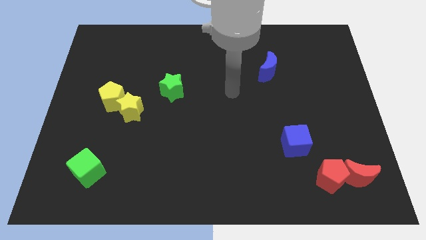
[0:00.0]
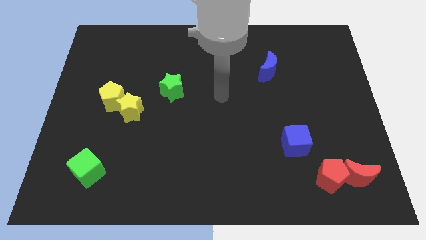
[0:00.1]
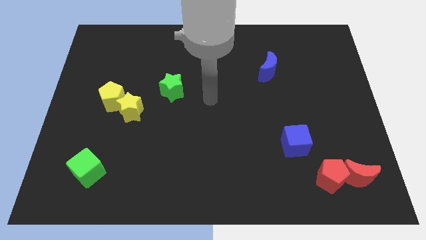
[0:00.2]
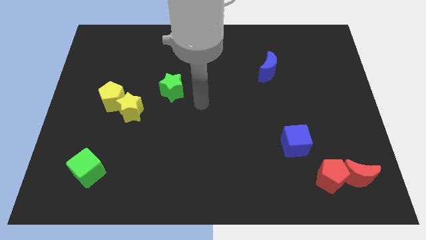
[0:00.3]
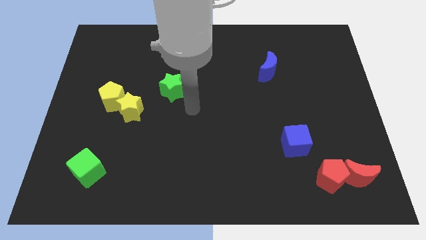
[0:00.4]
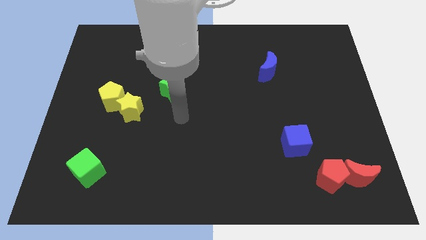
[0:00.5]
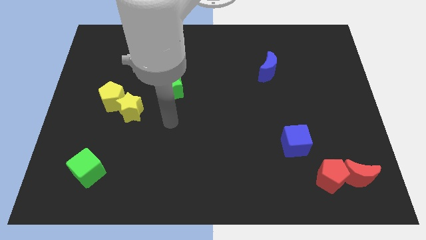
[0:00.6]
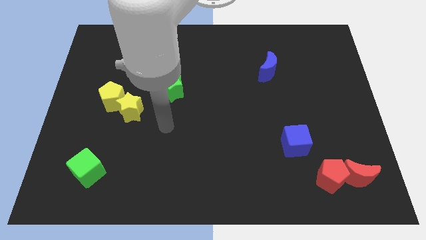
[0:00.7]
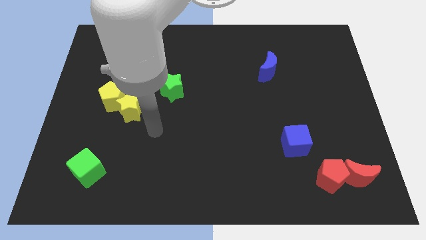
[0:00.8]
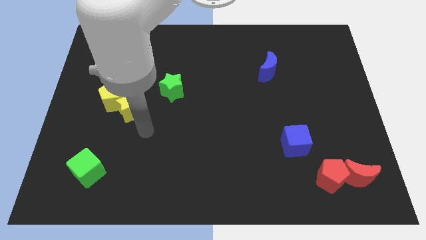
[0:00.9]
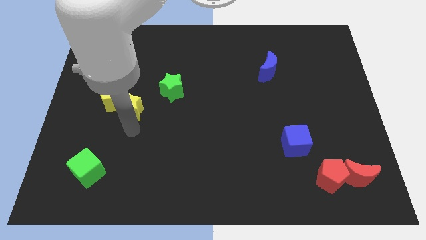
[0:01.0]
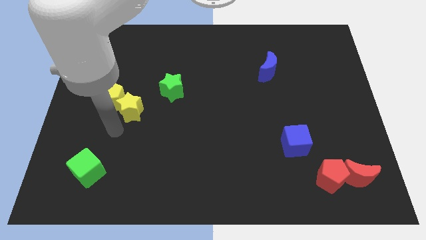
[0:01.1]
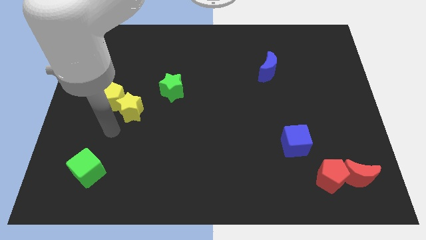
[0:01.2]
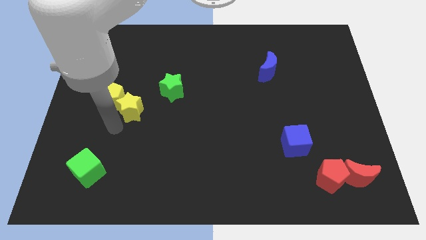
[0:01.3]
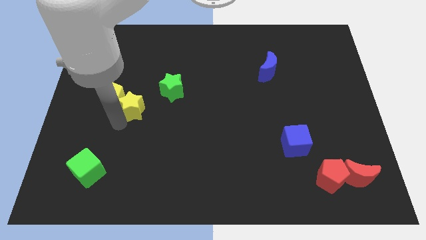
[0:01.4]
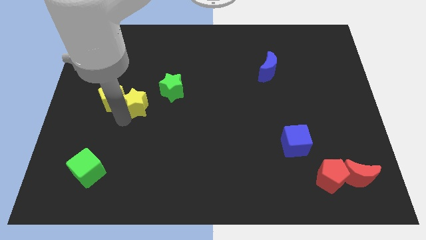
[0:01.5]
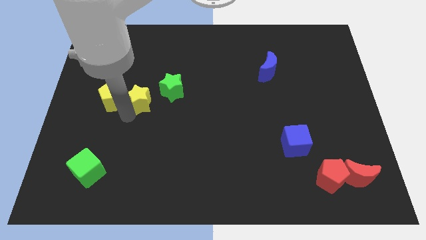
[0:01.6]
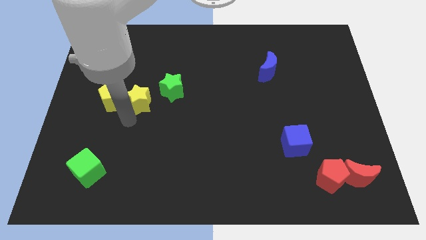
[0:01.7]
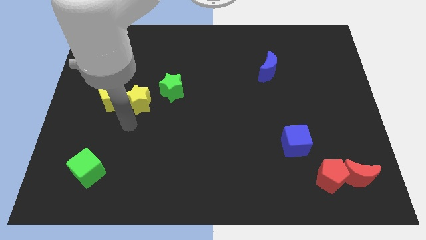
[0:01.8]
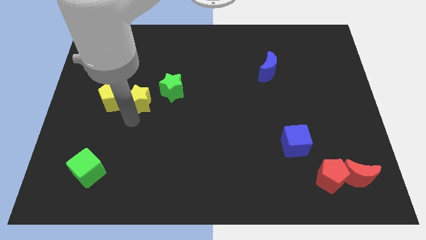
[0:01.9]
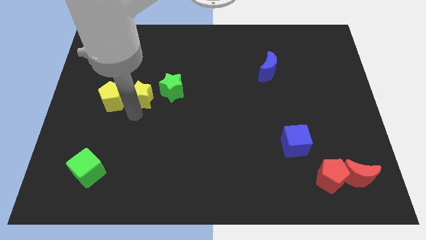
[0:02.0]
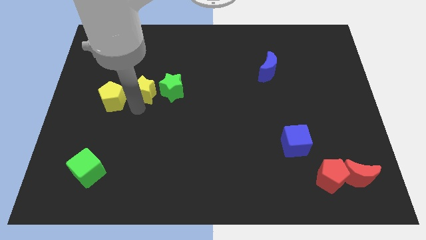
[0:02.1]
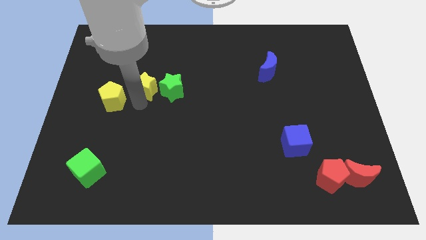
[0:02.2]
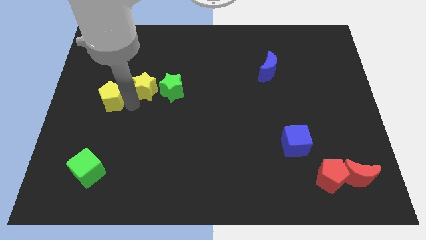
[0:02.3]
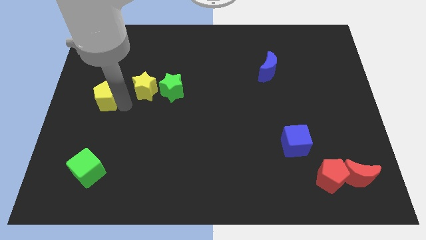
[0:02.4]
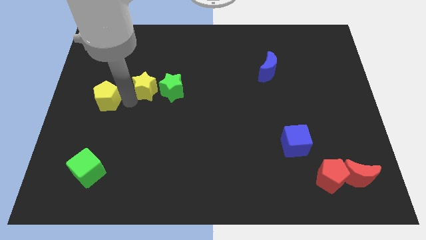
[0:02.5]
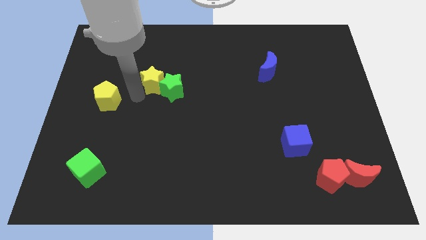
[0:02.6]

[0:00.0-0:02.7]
slide the yellow star slightly up and right diagonally

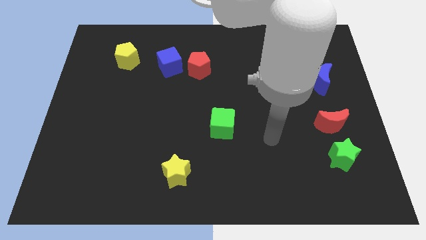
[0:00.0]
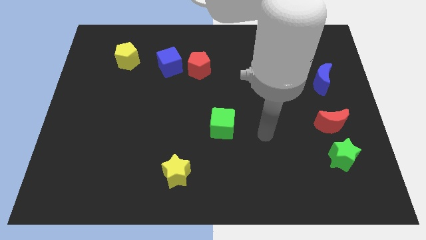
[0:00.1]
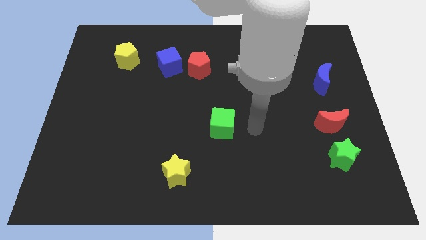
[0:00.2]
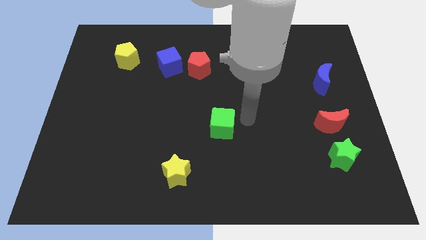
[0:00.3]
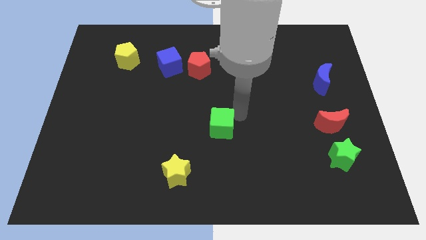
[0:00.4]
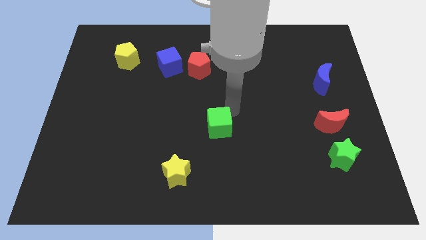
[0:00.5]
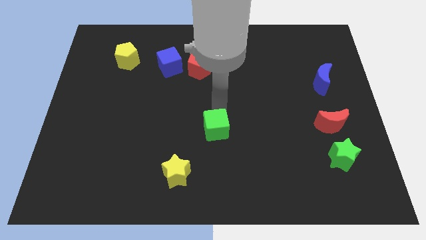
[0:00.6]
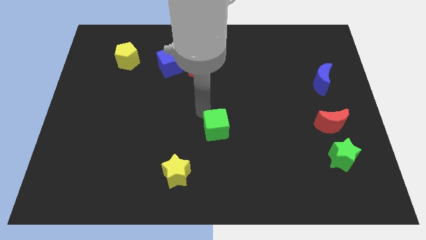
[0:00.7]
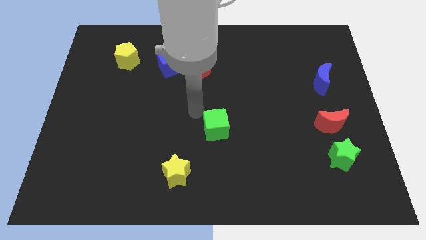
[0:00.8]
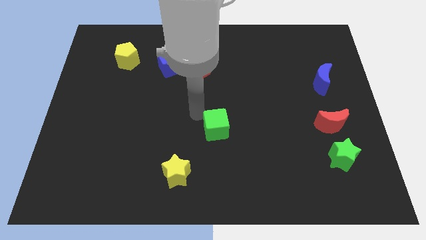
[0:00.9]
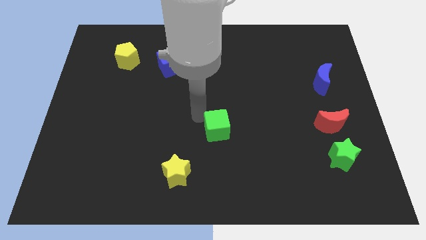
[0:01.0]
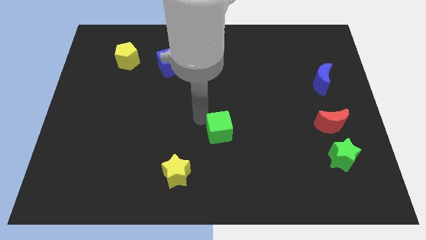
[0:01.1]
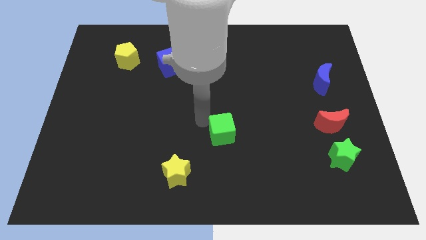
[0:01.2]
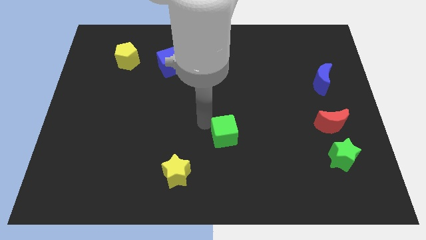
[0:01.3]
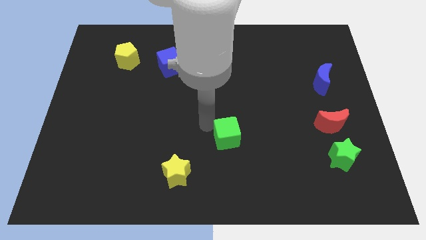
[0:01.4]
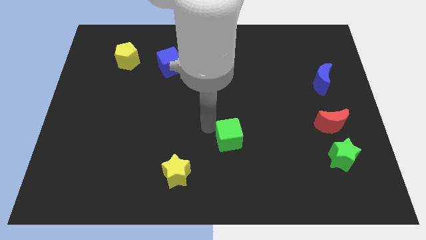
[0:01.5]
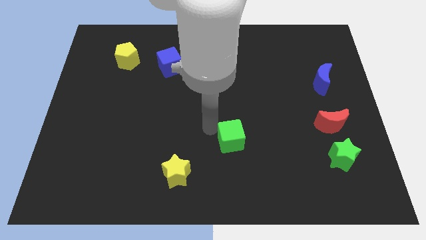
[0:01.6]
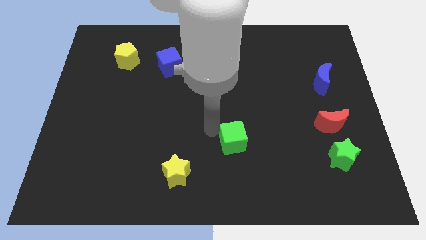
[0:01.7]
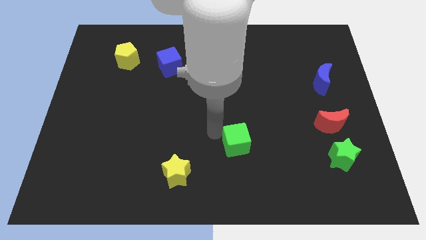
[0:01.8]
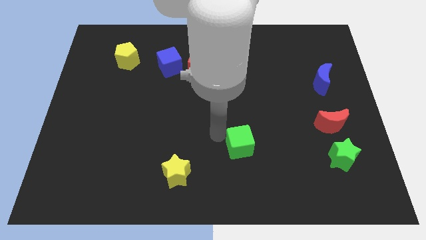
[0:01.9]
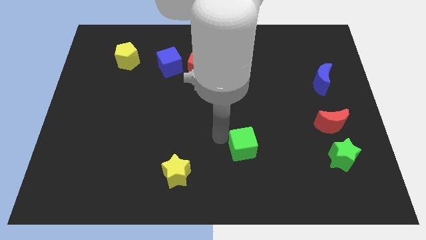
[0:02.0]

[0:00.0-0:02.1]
slightly move the green cube diagonally downwards and right

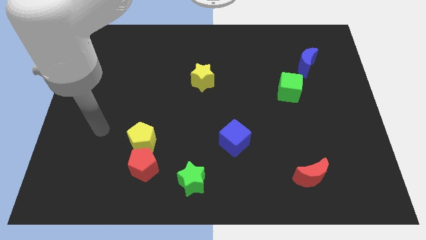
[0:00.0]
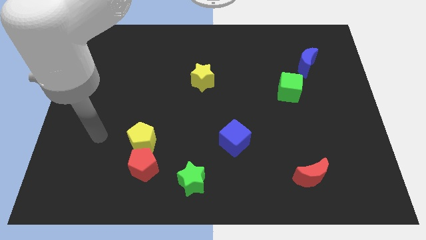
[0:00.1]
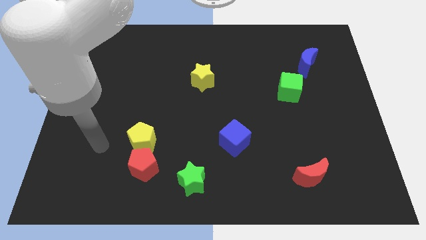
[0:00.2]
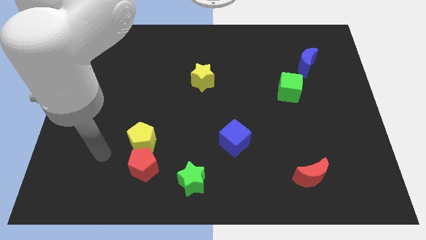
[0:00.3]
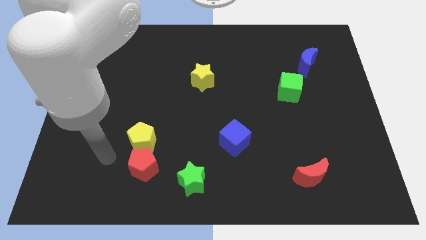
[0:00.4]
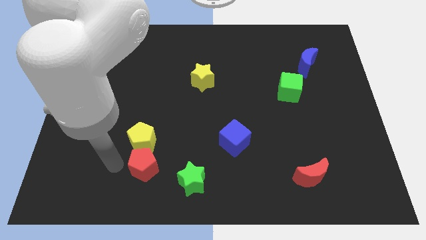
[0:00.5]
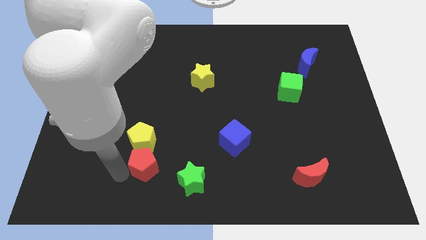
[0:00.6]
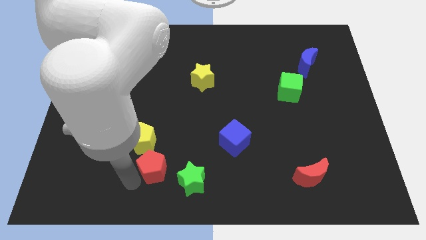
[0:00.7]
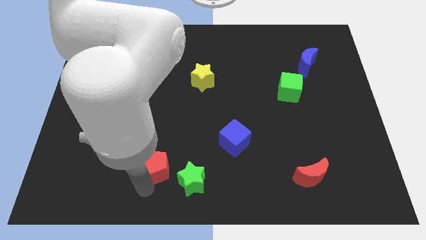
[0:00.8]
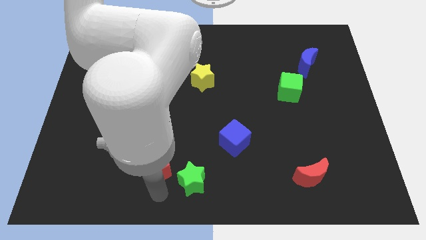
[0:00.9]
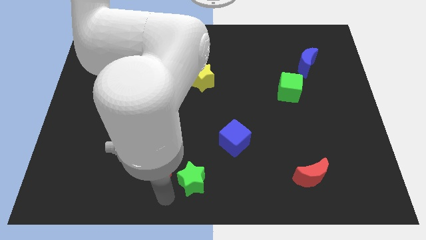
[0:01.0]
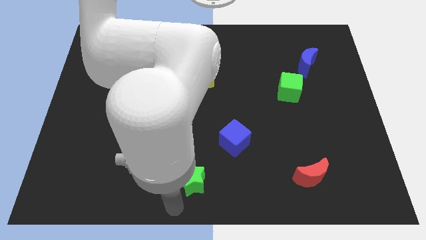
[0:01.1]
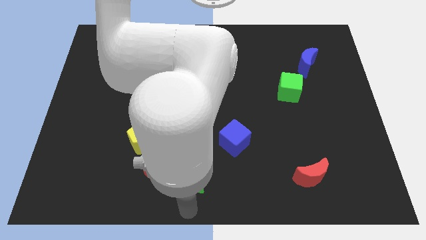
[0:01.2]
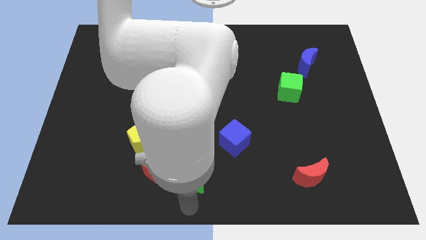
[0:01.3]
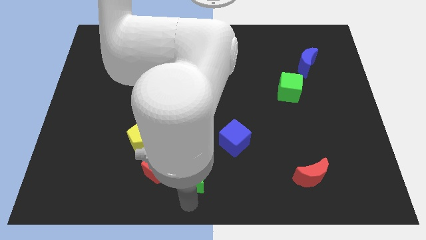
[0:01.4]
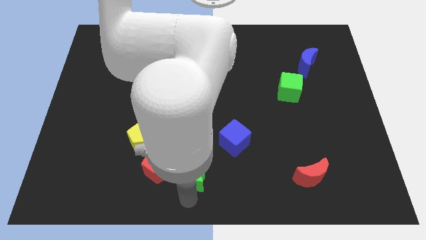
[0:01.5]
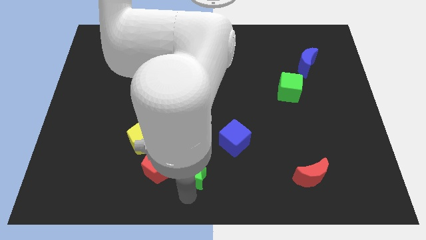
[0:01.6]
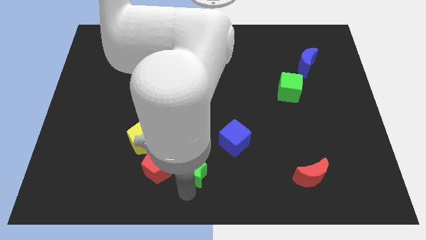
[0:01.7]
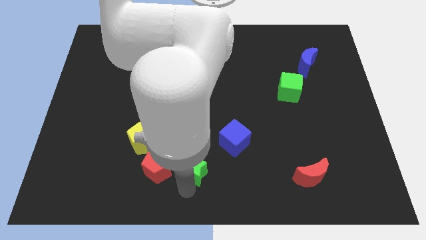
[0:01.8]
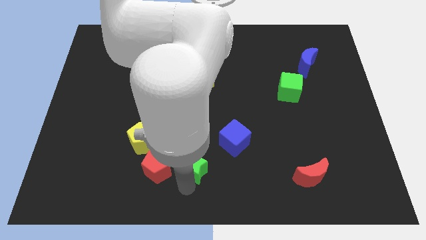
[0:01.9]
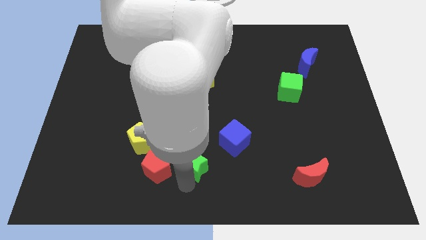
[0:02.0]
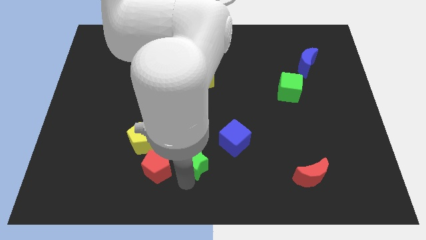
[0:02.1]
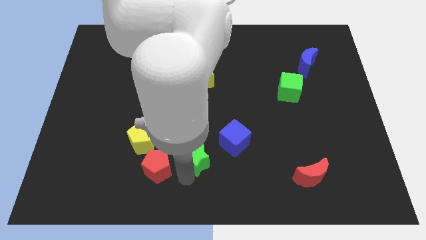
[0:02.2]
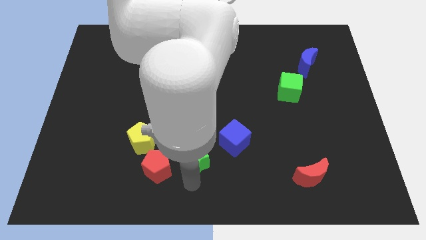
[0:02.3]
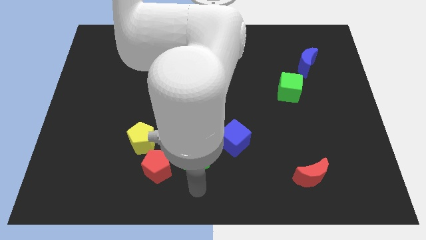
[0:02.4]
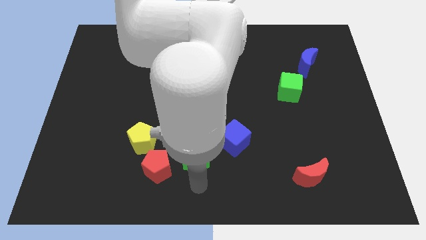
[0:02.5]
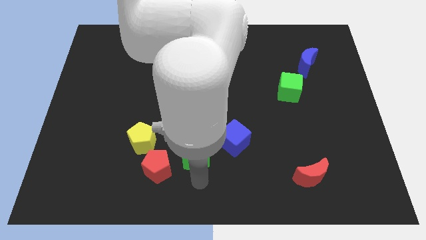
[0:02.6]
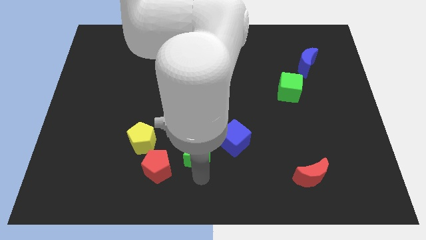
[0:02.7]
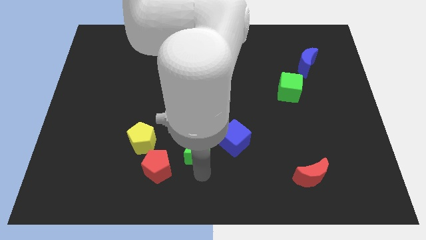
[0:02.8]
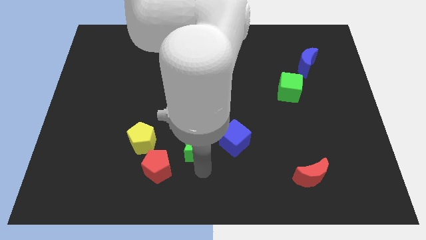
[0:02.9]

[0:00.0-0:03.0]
slide the green star a bit upwards

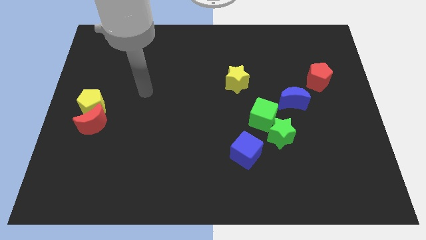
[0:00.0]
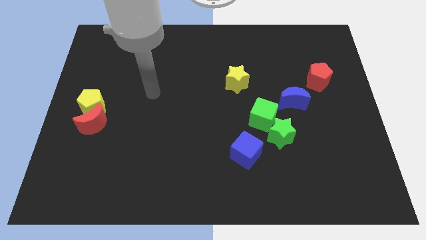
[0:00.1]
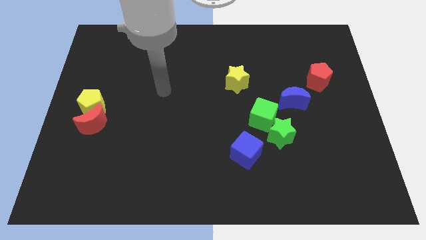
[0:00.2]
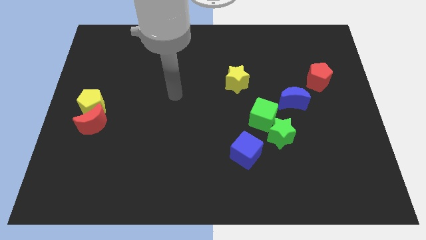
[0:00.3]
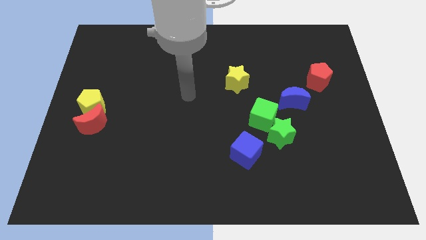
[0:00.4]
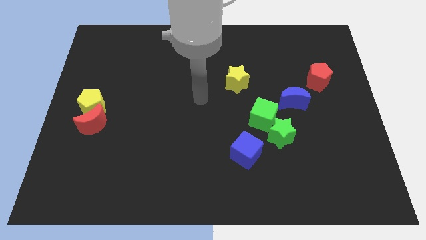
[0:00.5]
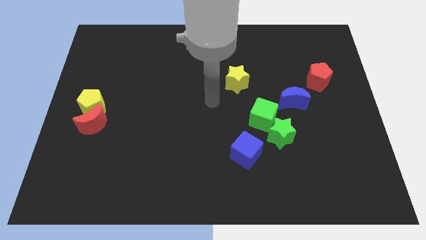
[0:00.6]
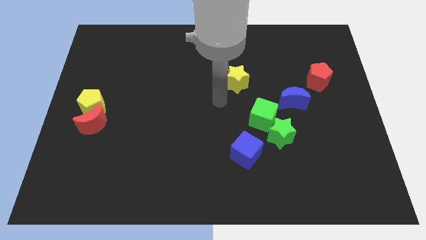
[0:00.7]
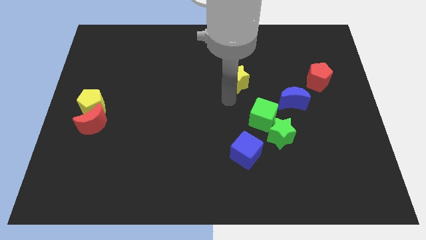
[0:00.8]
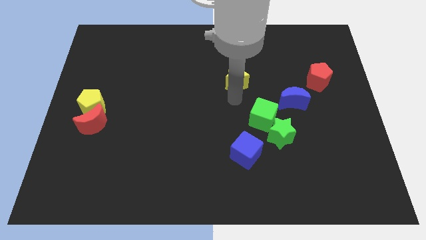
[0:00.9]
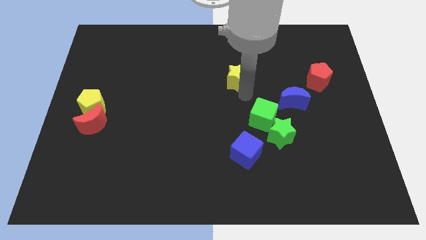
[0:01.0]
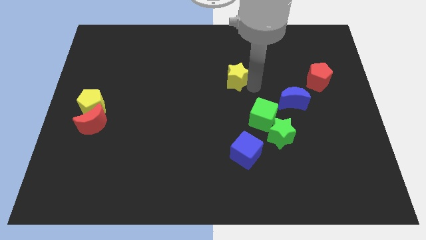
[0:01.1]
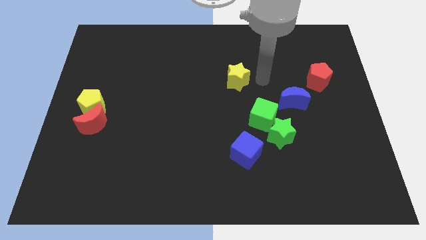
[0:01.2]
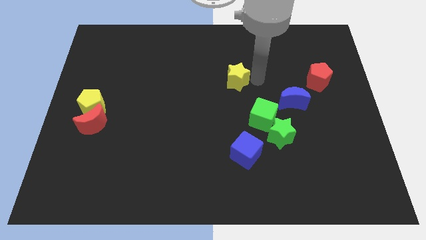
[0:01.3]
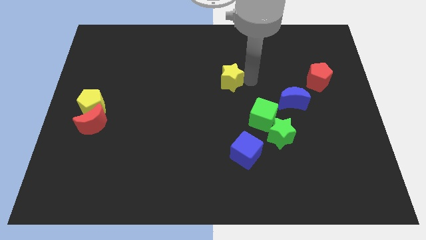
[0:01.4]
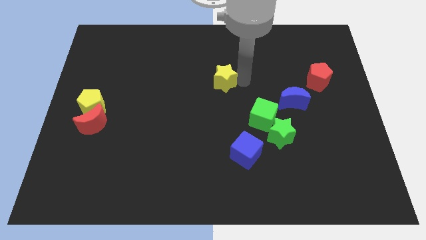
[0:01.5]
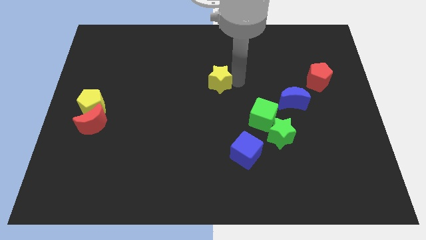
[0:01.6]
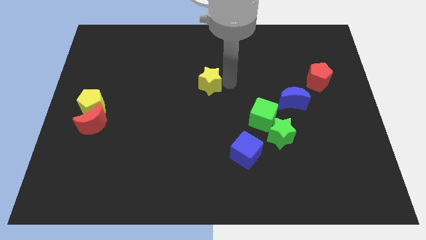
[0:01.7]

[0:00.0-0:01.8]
push the yellow star to the left a little bit
